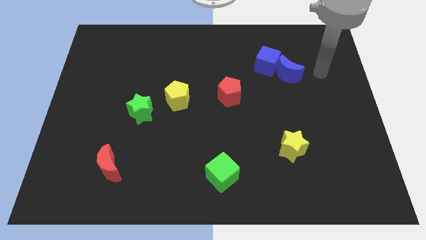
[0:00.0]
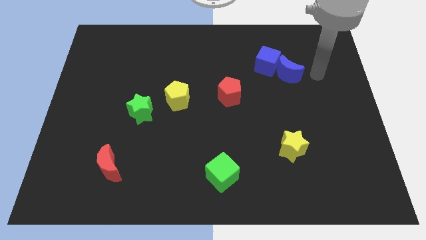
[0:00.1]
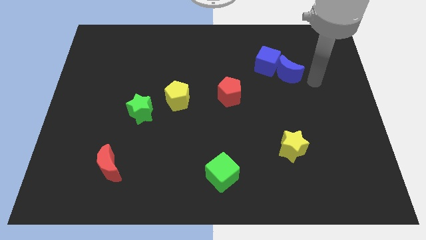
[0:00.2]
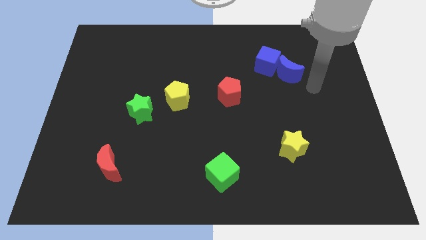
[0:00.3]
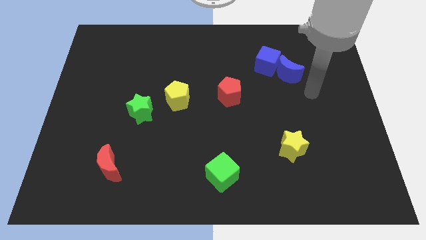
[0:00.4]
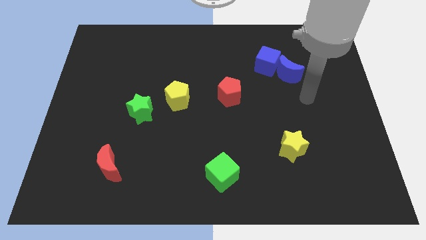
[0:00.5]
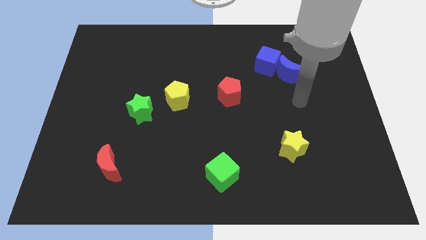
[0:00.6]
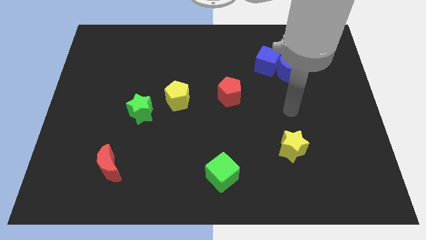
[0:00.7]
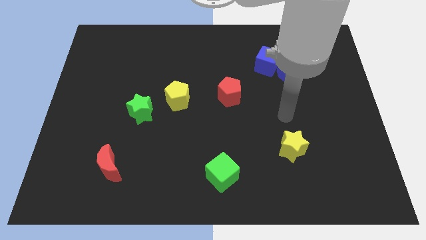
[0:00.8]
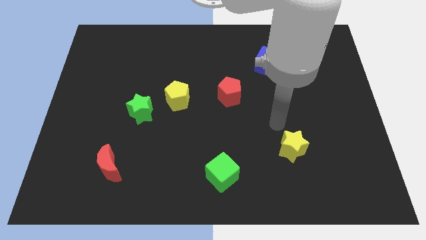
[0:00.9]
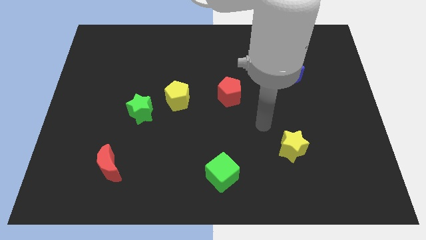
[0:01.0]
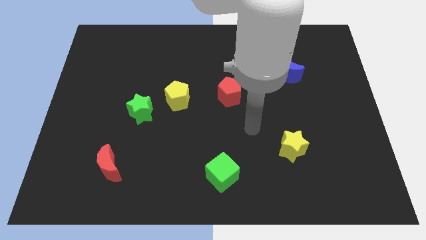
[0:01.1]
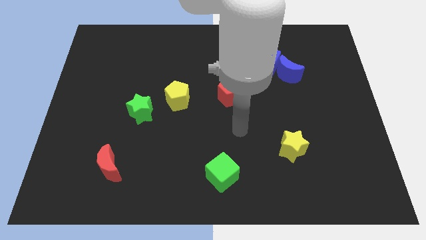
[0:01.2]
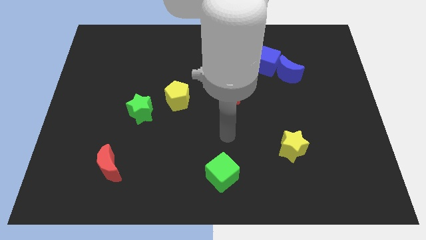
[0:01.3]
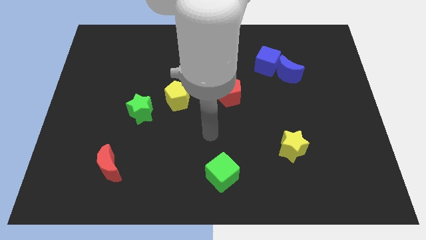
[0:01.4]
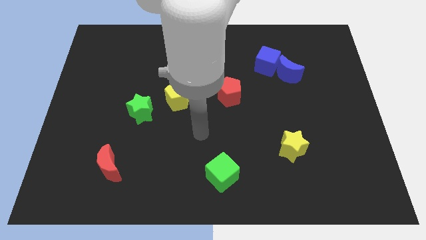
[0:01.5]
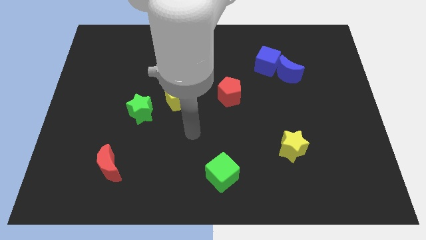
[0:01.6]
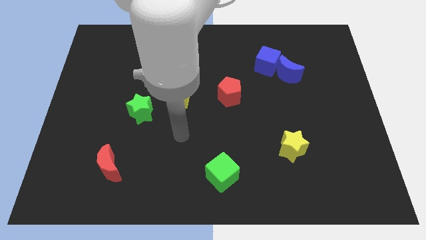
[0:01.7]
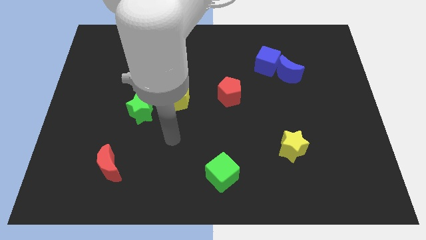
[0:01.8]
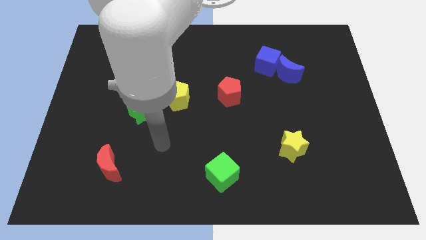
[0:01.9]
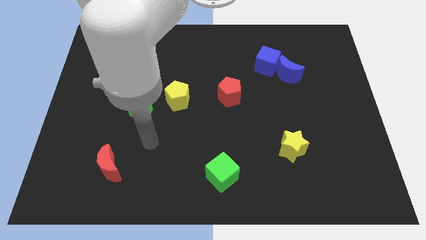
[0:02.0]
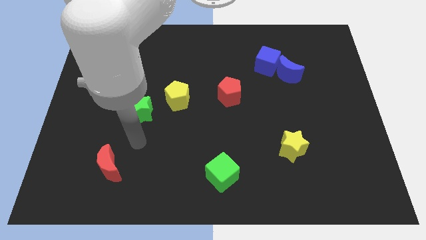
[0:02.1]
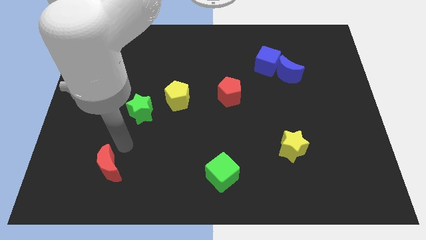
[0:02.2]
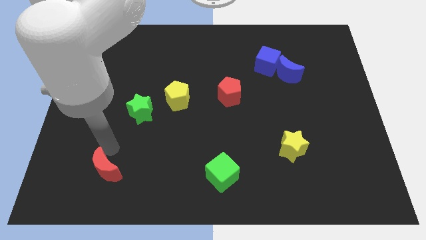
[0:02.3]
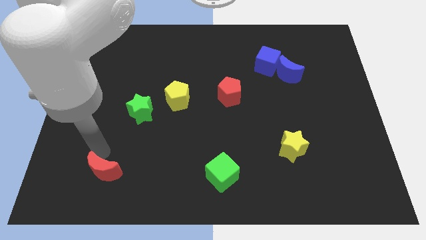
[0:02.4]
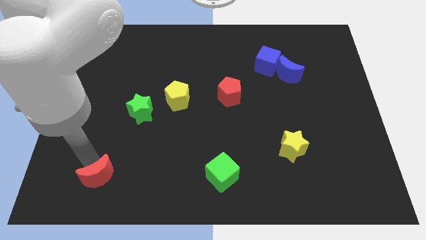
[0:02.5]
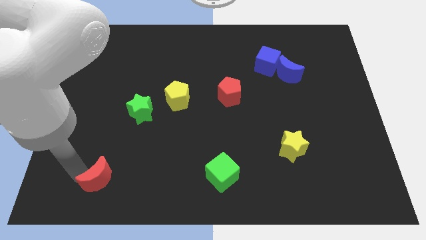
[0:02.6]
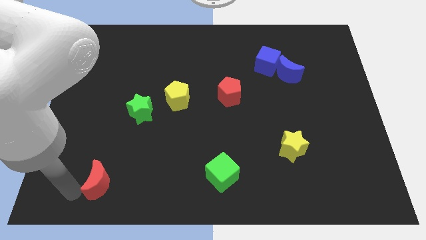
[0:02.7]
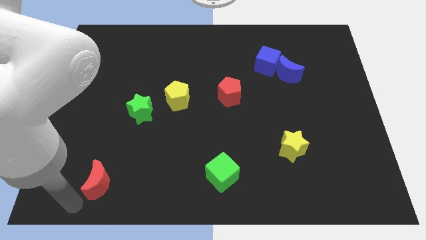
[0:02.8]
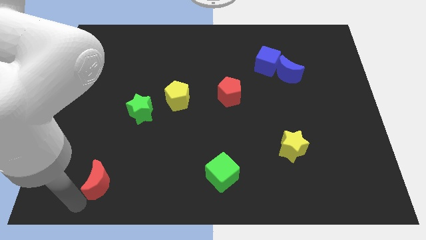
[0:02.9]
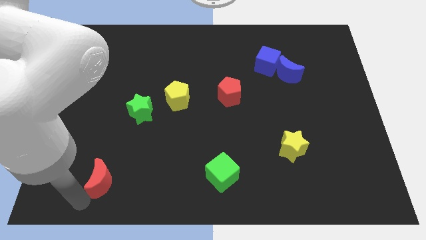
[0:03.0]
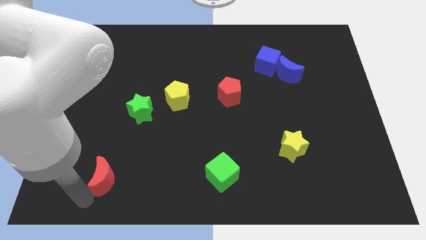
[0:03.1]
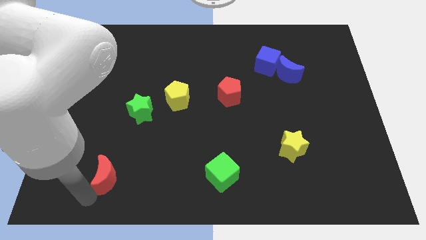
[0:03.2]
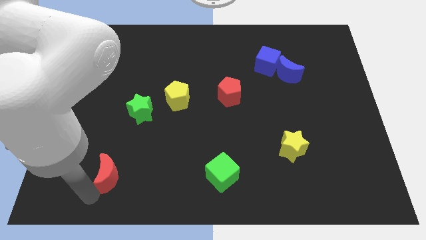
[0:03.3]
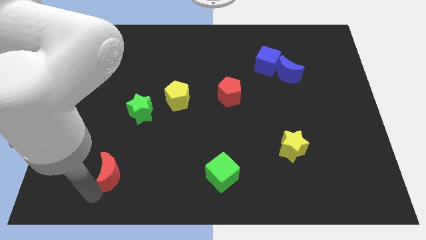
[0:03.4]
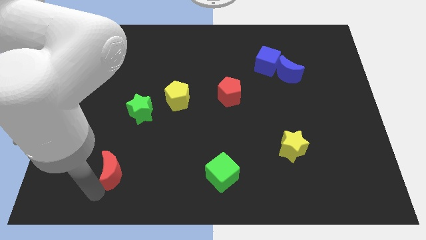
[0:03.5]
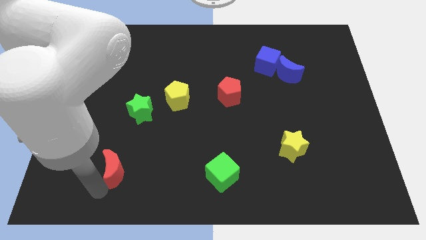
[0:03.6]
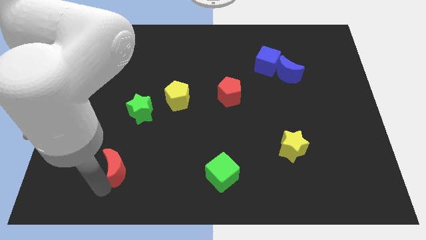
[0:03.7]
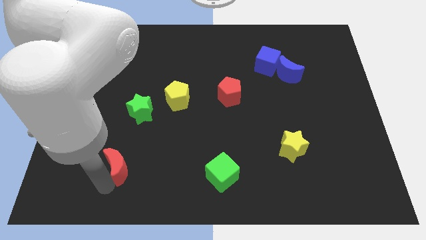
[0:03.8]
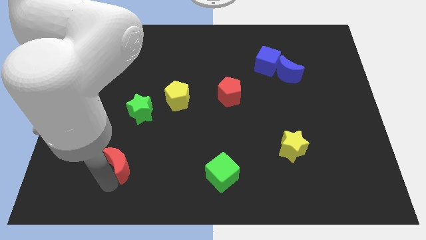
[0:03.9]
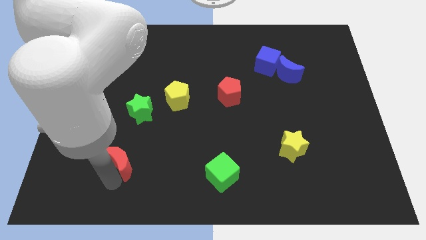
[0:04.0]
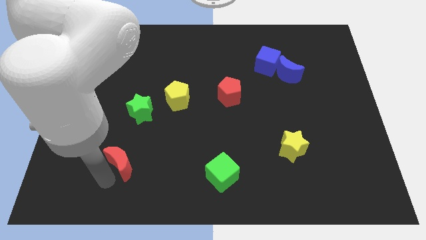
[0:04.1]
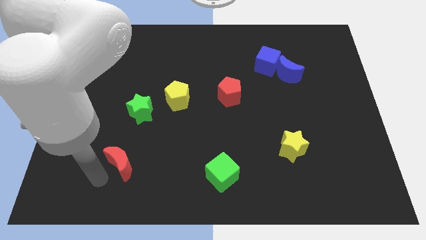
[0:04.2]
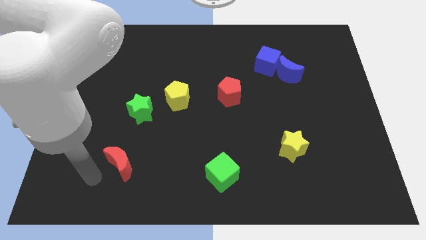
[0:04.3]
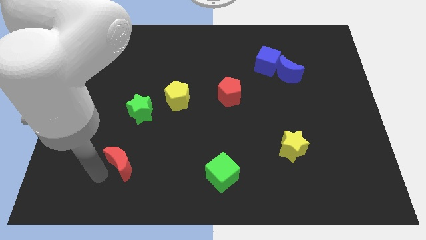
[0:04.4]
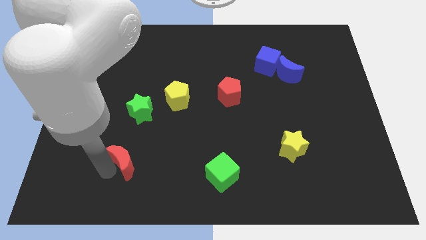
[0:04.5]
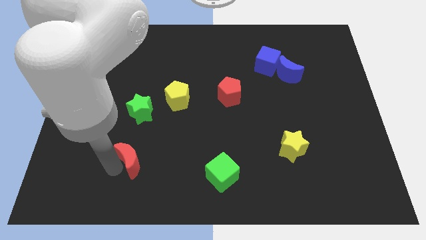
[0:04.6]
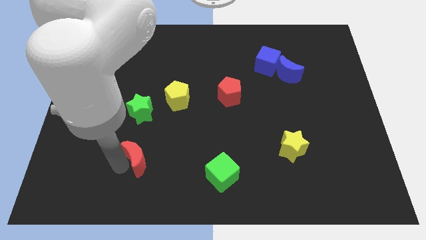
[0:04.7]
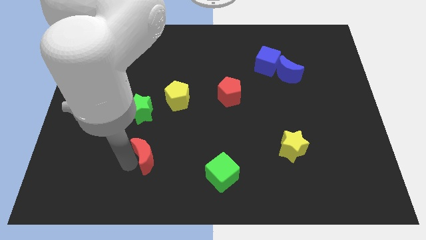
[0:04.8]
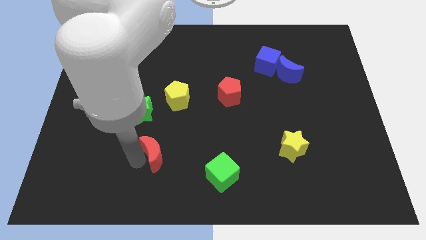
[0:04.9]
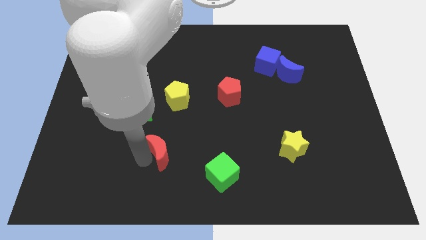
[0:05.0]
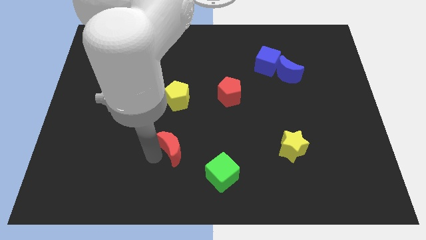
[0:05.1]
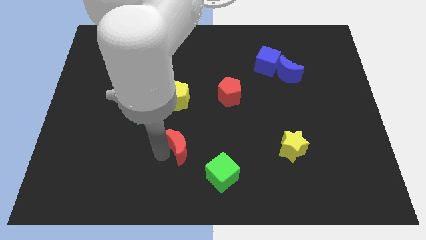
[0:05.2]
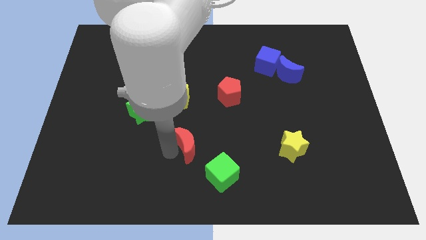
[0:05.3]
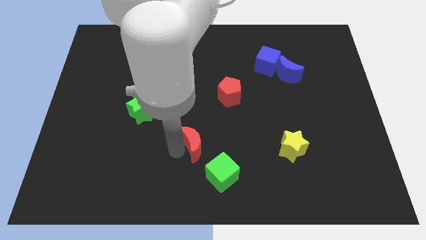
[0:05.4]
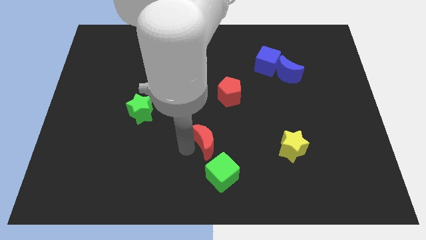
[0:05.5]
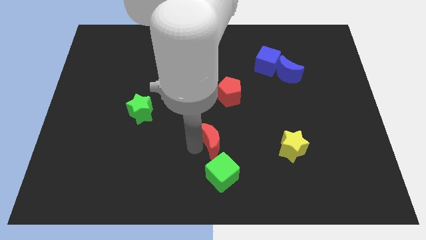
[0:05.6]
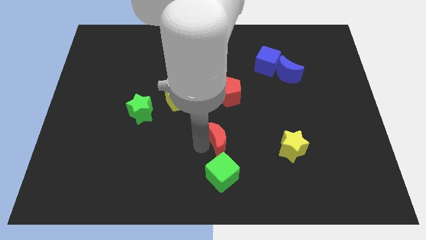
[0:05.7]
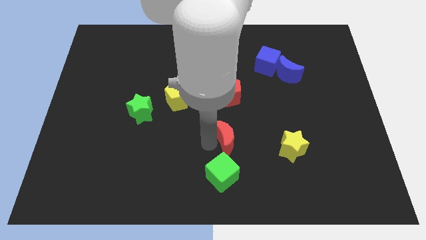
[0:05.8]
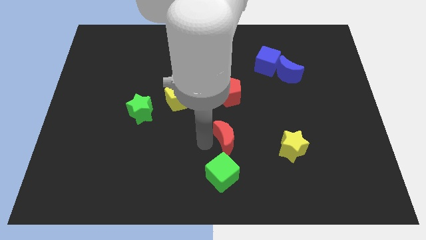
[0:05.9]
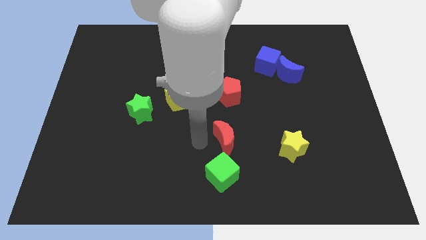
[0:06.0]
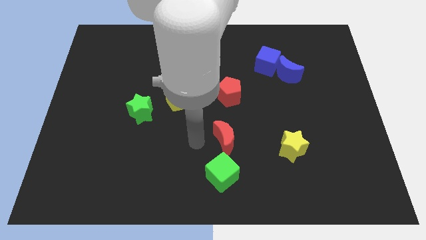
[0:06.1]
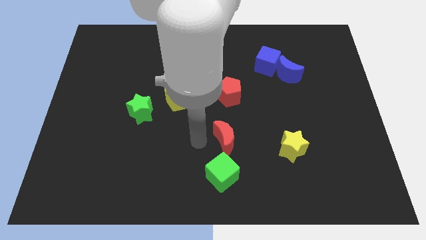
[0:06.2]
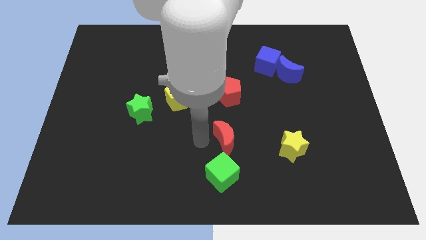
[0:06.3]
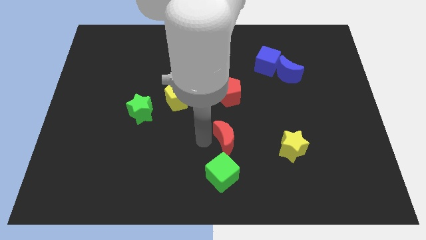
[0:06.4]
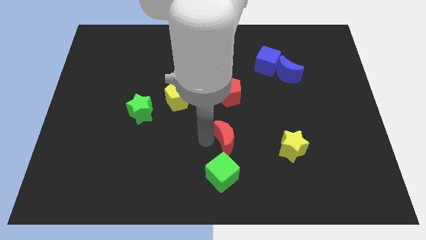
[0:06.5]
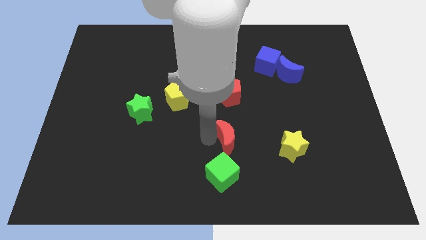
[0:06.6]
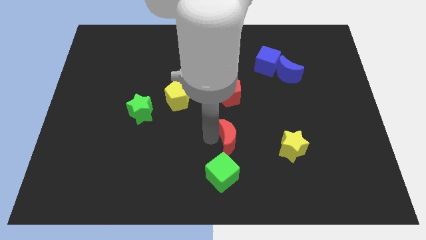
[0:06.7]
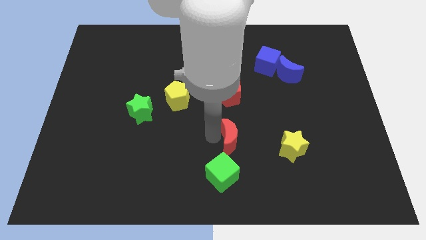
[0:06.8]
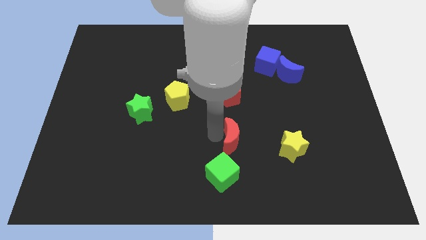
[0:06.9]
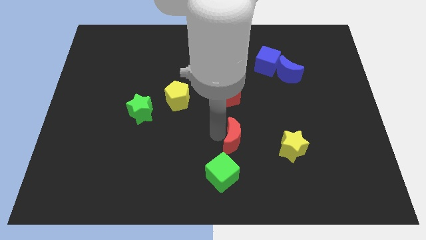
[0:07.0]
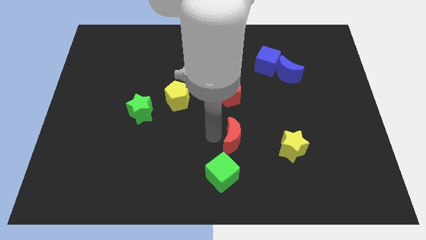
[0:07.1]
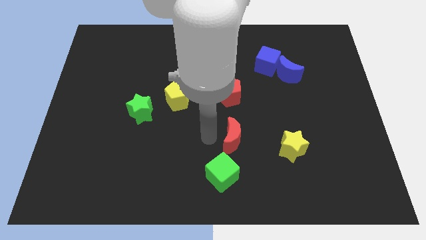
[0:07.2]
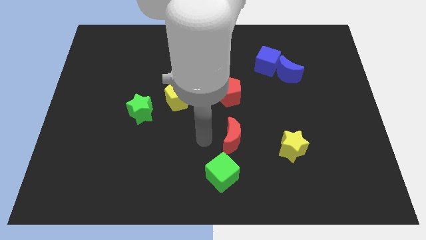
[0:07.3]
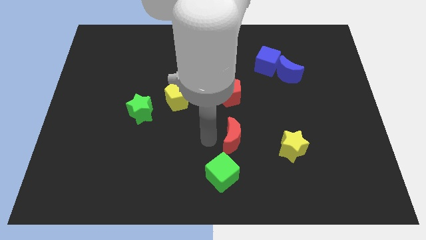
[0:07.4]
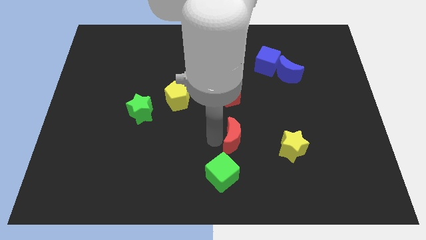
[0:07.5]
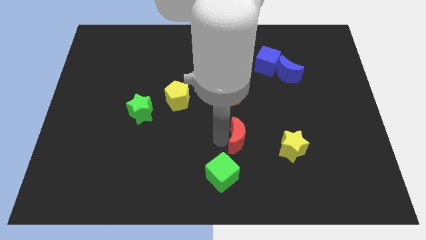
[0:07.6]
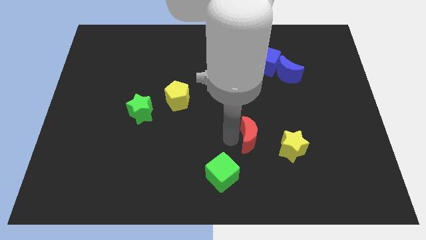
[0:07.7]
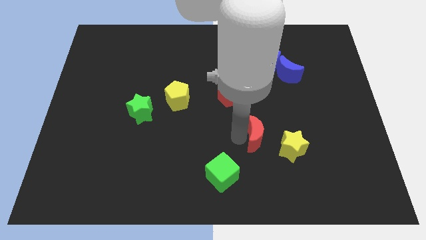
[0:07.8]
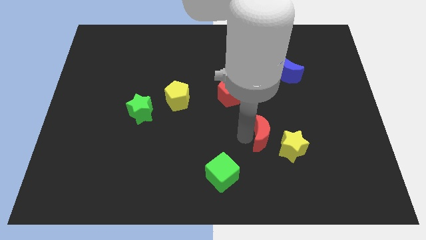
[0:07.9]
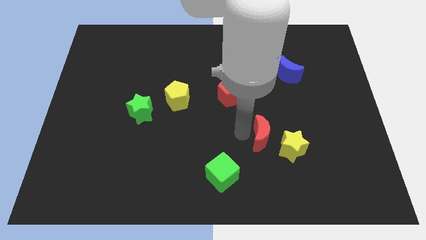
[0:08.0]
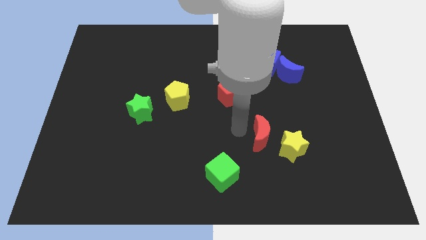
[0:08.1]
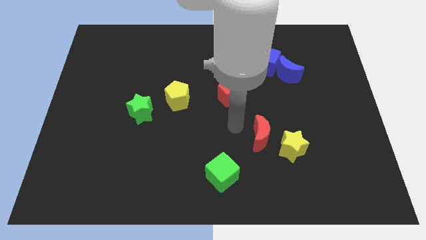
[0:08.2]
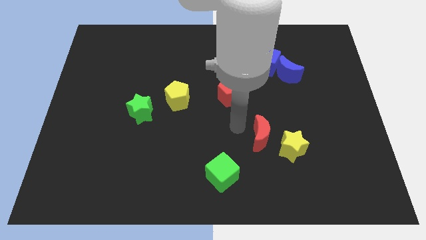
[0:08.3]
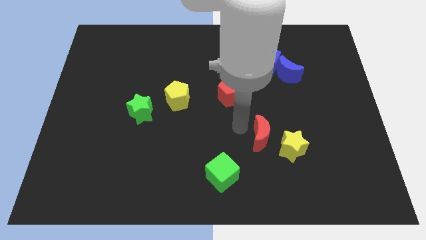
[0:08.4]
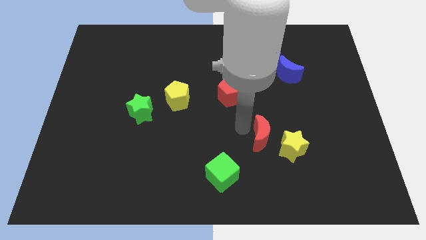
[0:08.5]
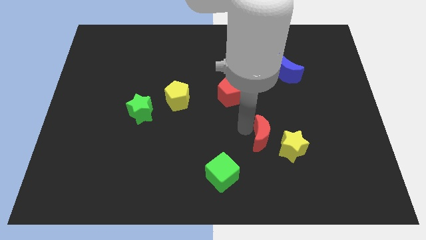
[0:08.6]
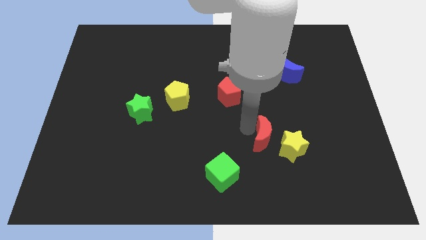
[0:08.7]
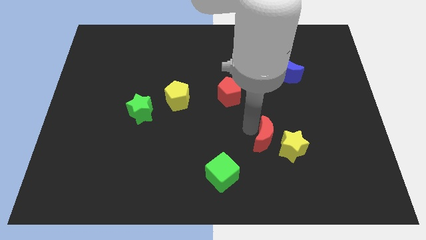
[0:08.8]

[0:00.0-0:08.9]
move the red moon close to the yellow star
